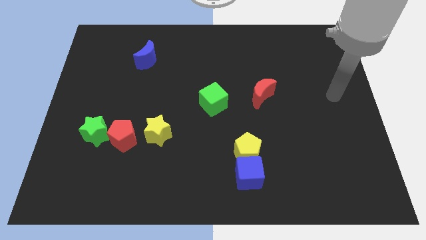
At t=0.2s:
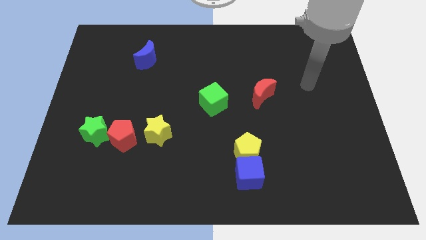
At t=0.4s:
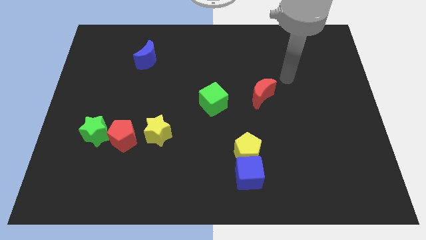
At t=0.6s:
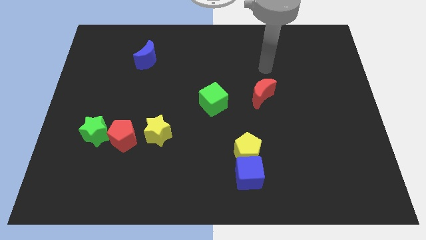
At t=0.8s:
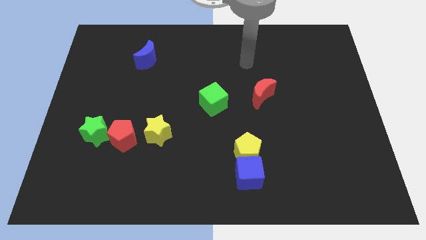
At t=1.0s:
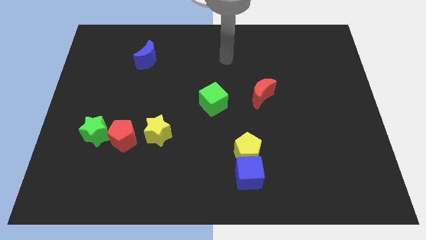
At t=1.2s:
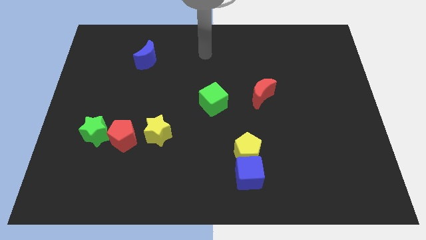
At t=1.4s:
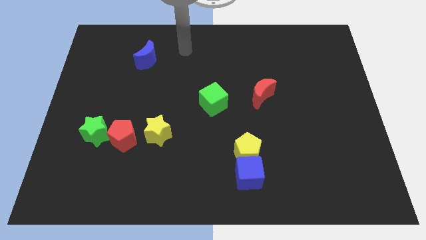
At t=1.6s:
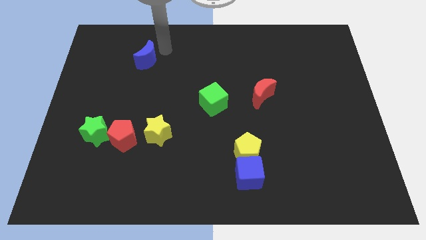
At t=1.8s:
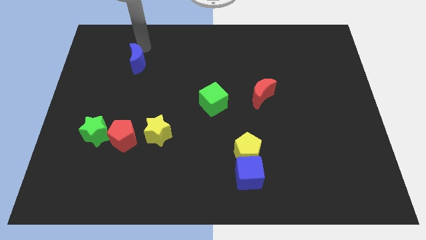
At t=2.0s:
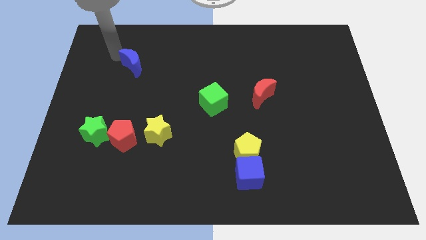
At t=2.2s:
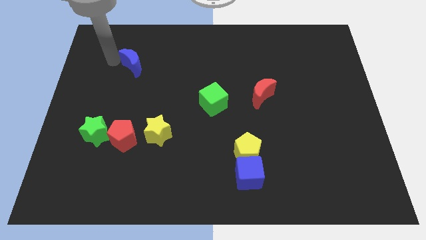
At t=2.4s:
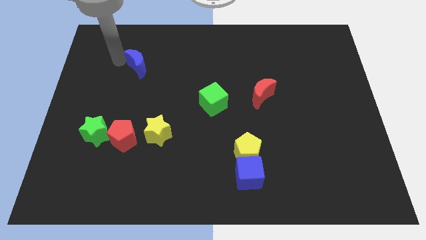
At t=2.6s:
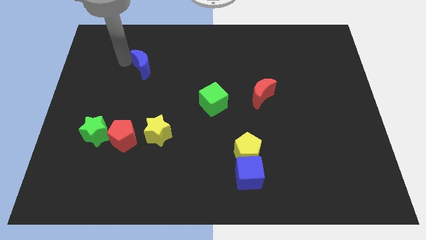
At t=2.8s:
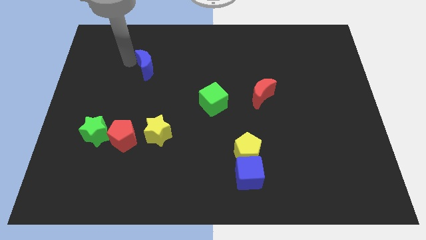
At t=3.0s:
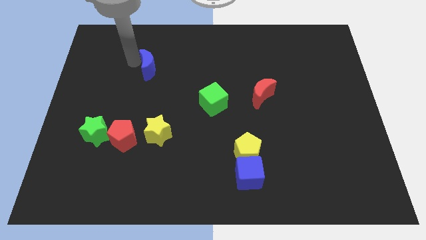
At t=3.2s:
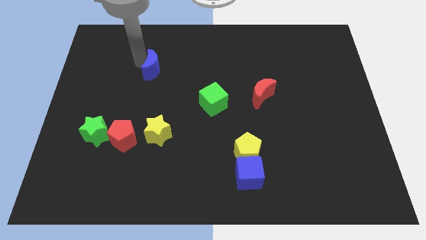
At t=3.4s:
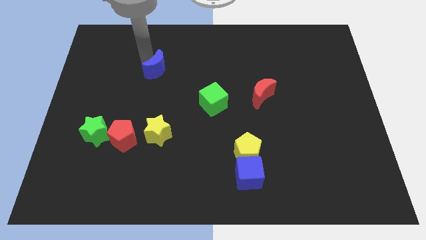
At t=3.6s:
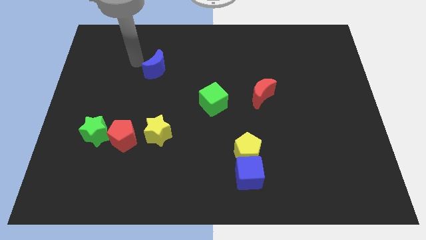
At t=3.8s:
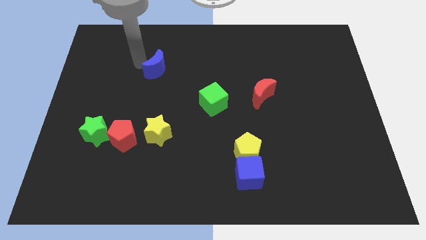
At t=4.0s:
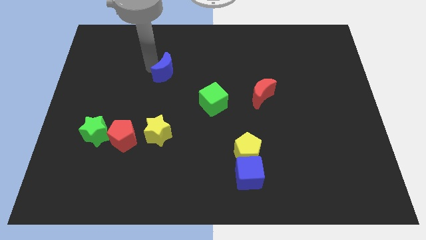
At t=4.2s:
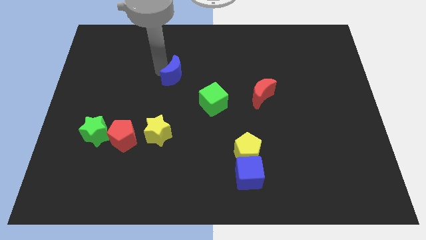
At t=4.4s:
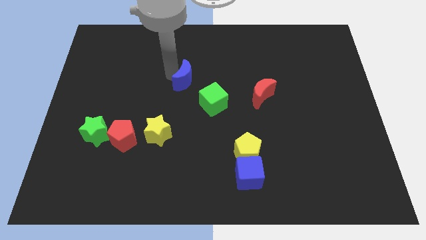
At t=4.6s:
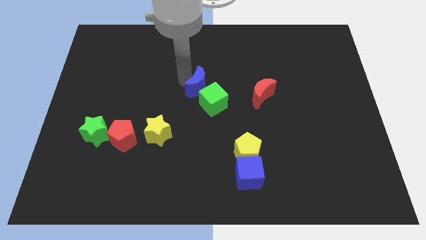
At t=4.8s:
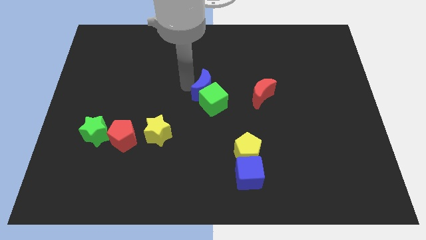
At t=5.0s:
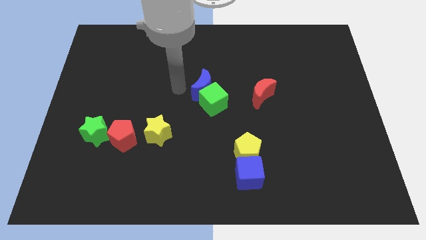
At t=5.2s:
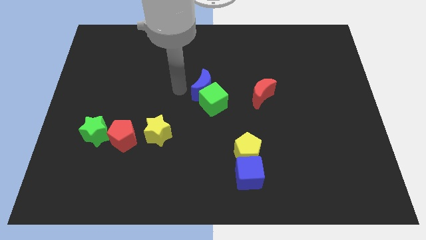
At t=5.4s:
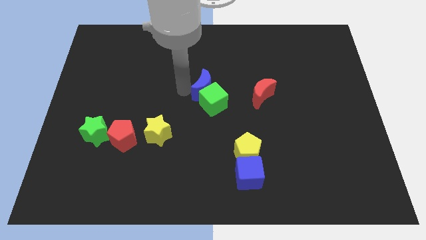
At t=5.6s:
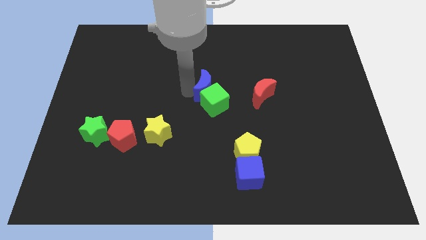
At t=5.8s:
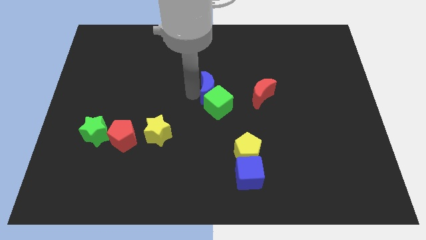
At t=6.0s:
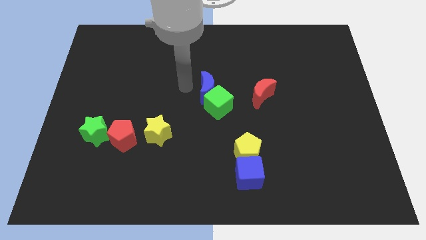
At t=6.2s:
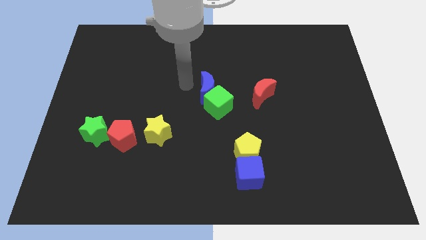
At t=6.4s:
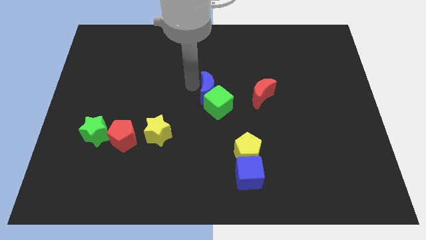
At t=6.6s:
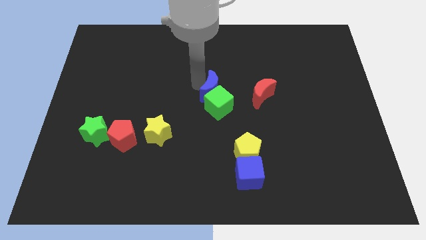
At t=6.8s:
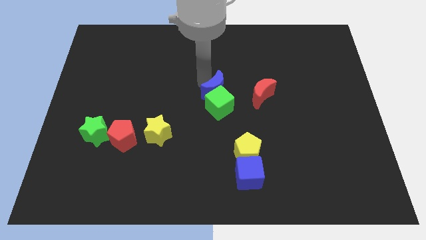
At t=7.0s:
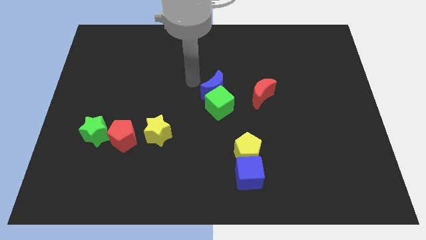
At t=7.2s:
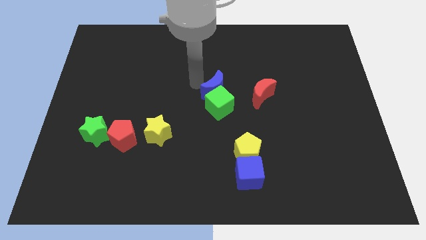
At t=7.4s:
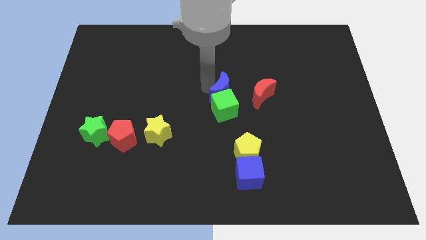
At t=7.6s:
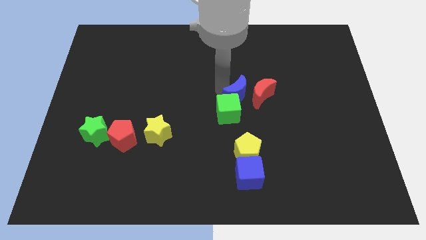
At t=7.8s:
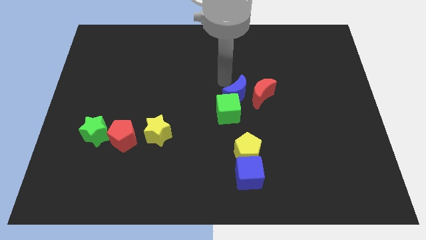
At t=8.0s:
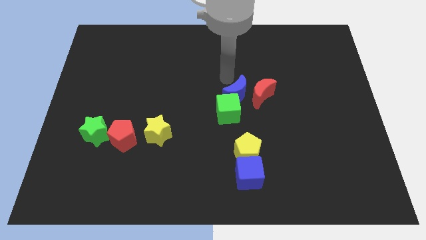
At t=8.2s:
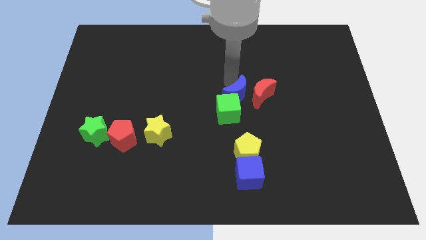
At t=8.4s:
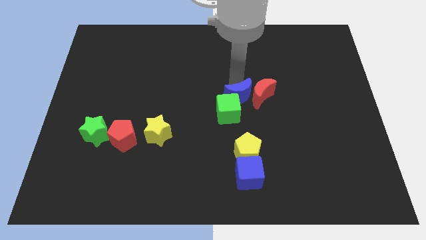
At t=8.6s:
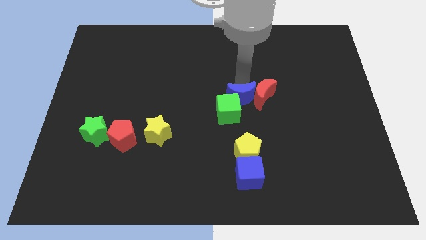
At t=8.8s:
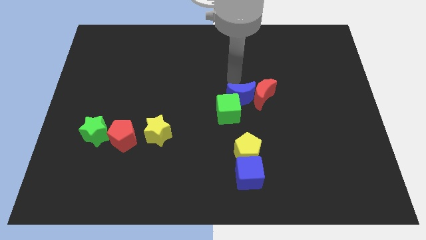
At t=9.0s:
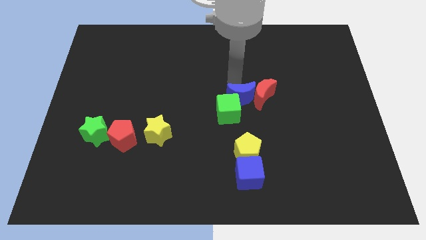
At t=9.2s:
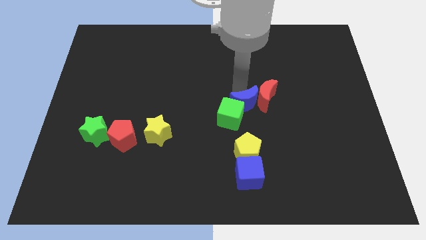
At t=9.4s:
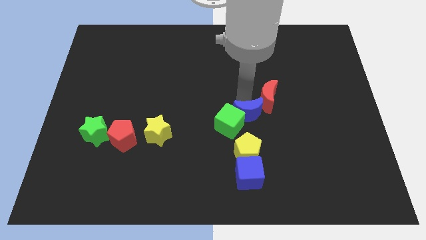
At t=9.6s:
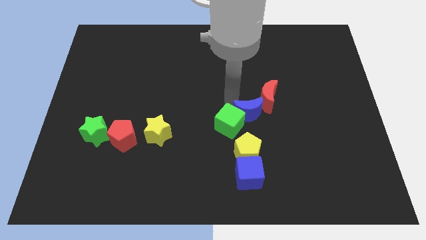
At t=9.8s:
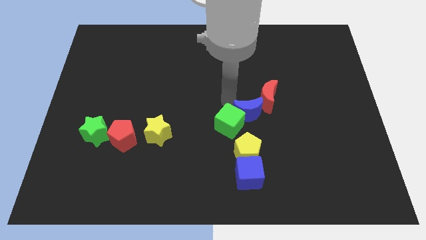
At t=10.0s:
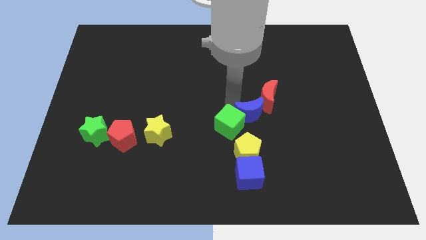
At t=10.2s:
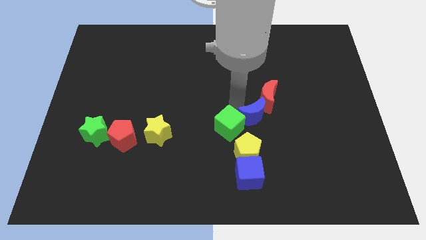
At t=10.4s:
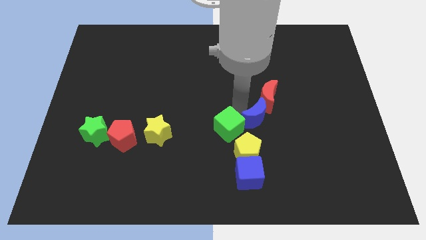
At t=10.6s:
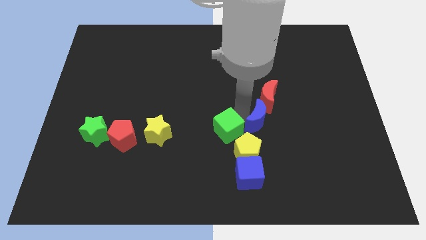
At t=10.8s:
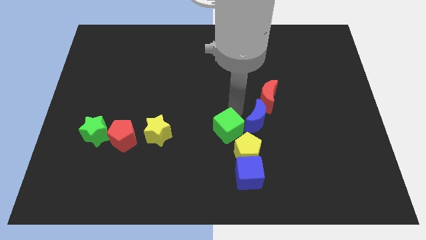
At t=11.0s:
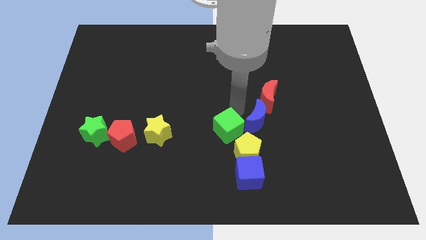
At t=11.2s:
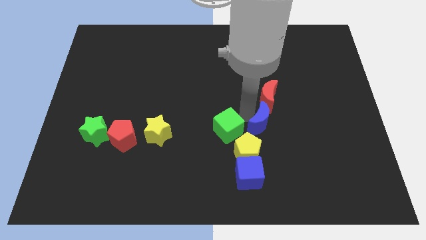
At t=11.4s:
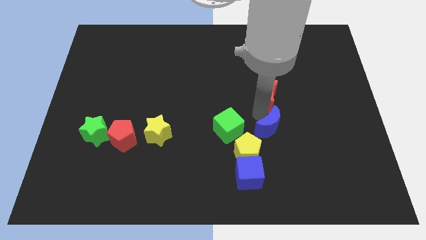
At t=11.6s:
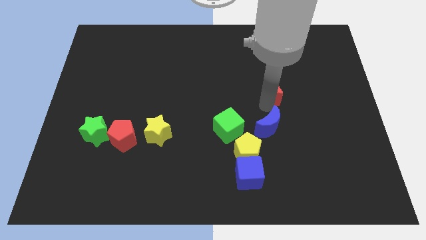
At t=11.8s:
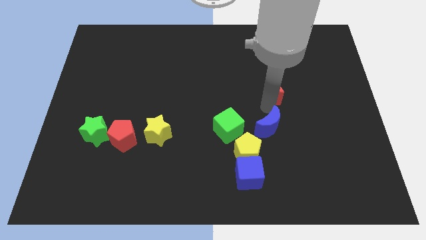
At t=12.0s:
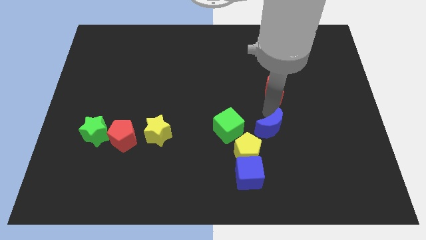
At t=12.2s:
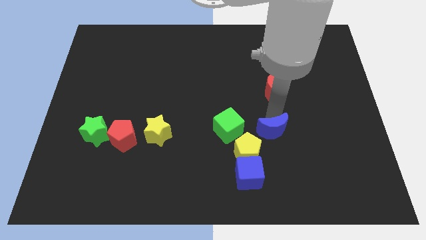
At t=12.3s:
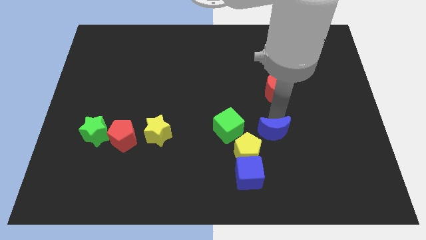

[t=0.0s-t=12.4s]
push the blue moon to the top right side of the blue cube

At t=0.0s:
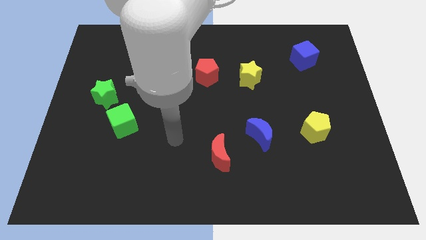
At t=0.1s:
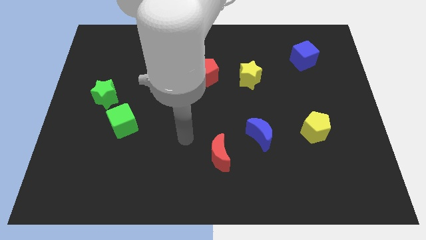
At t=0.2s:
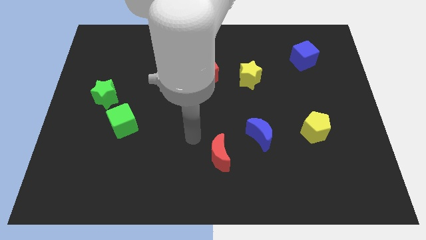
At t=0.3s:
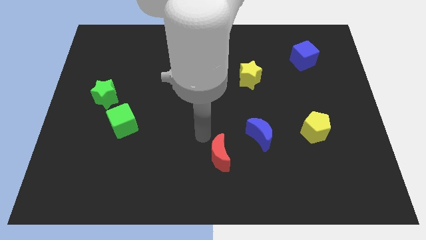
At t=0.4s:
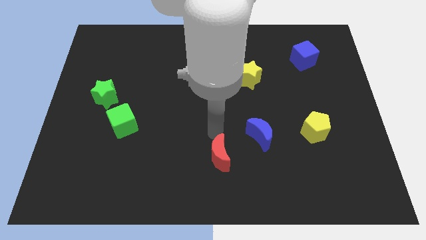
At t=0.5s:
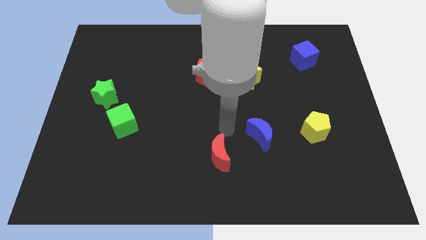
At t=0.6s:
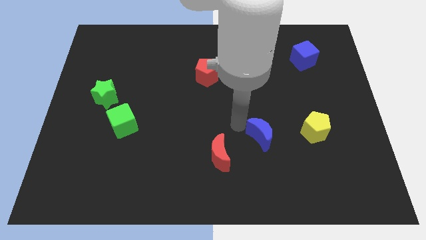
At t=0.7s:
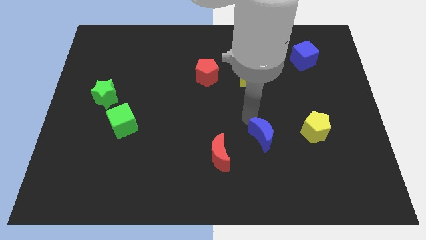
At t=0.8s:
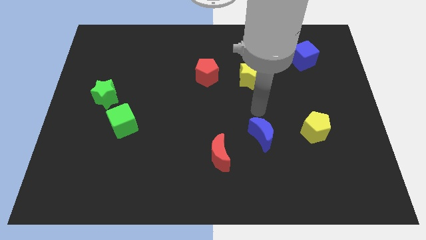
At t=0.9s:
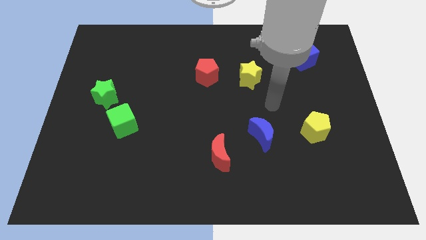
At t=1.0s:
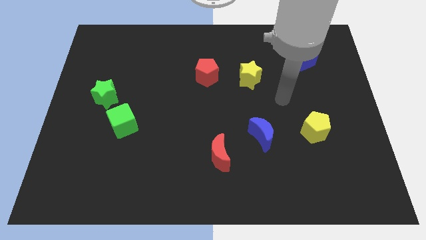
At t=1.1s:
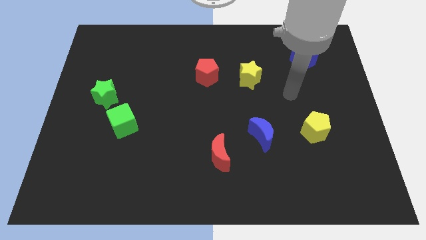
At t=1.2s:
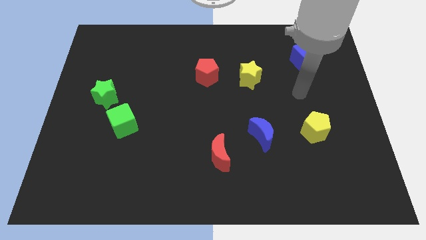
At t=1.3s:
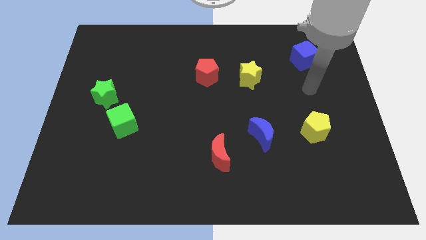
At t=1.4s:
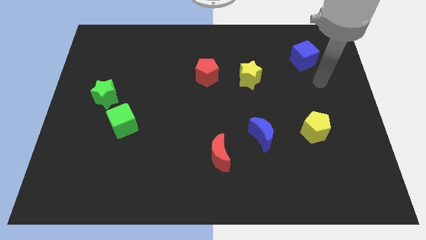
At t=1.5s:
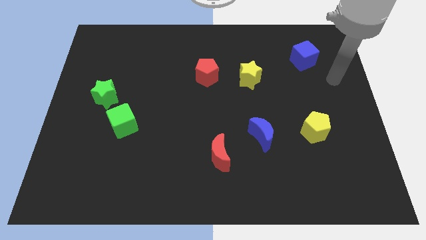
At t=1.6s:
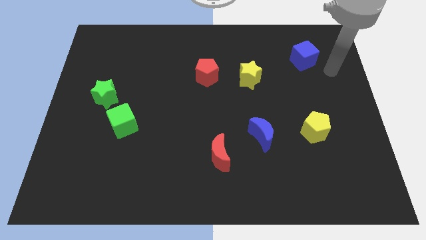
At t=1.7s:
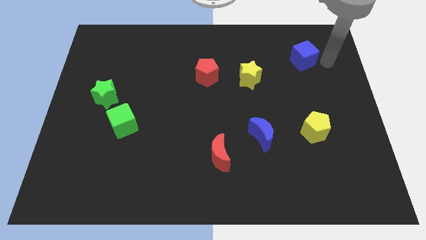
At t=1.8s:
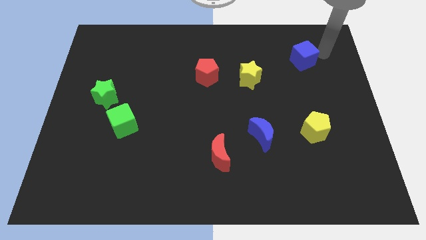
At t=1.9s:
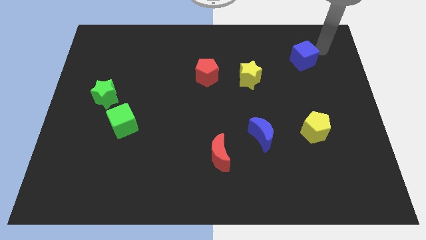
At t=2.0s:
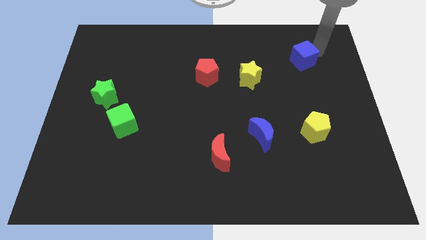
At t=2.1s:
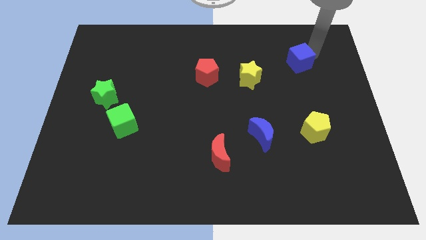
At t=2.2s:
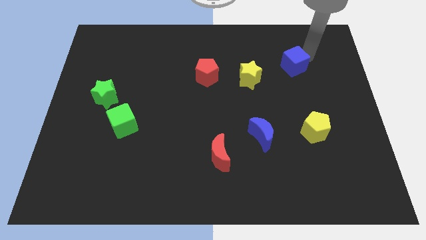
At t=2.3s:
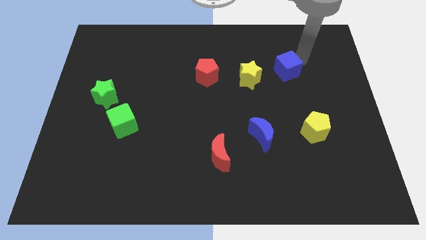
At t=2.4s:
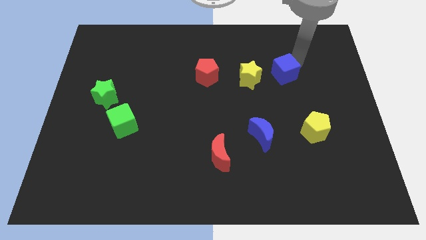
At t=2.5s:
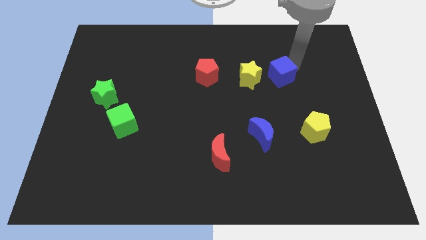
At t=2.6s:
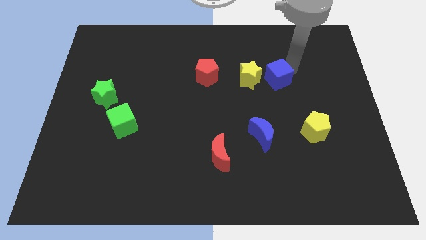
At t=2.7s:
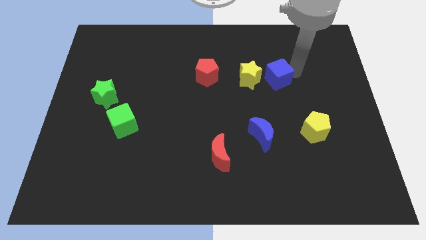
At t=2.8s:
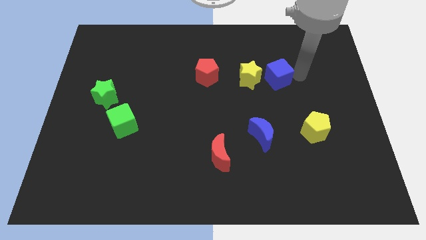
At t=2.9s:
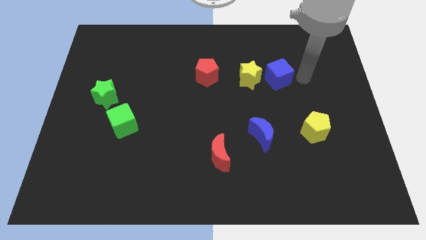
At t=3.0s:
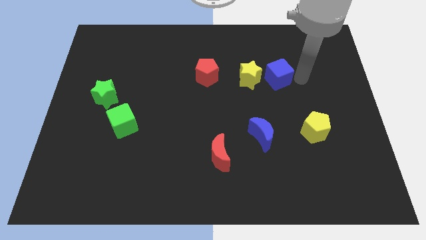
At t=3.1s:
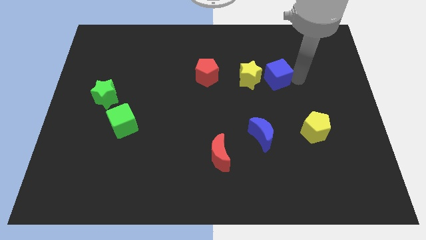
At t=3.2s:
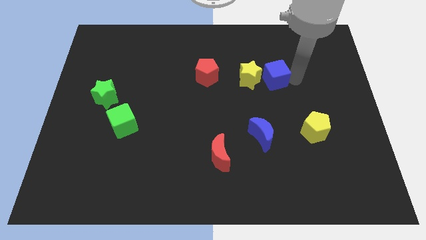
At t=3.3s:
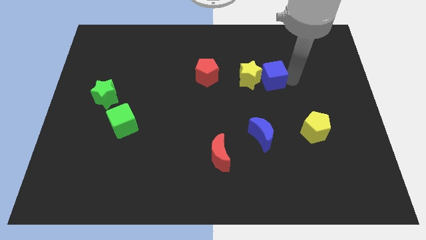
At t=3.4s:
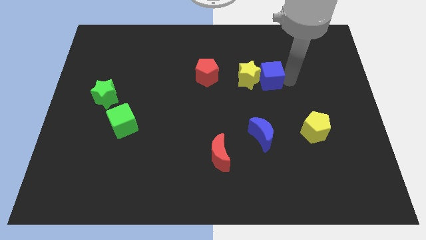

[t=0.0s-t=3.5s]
move the blue cube to the right side of the red pentagon
